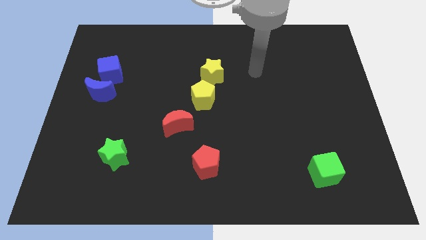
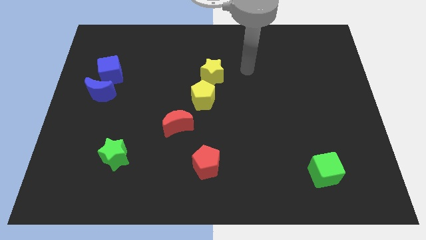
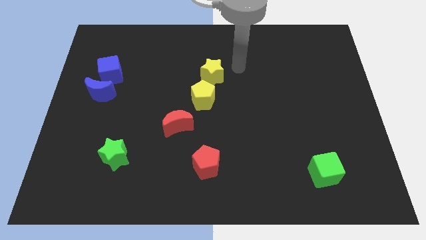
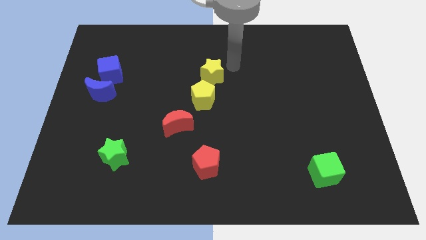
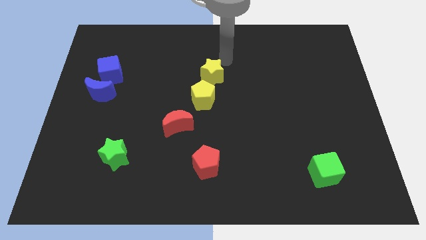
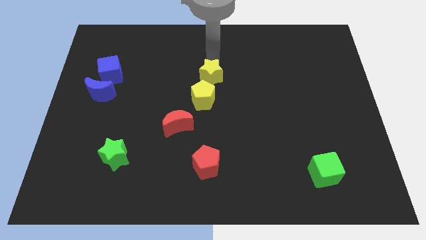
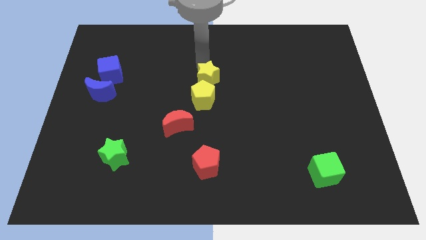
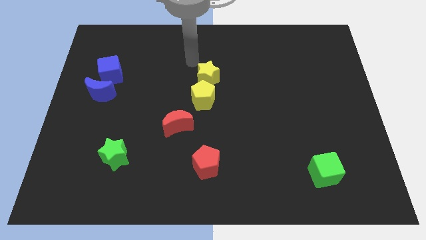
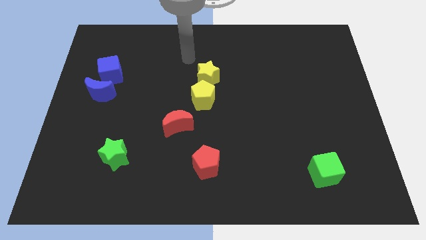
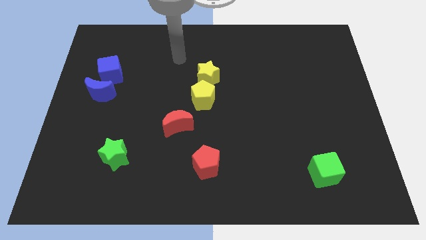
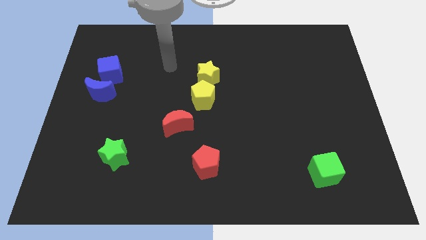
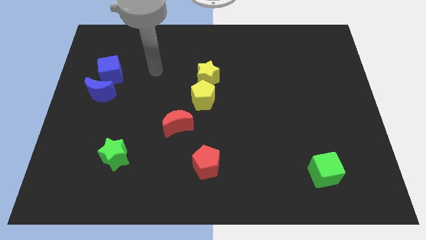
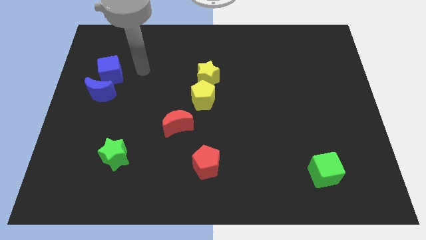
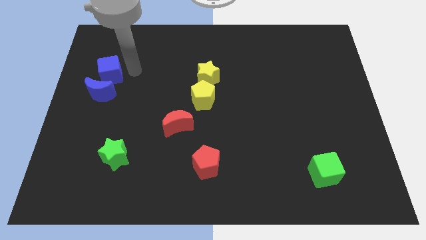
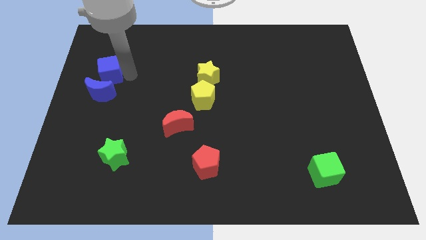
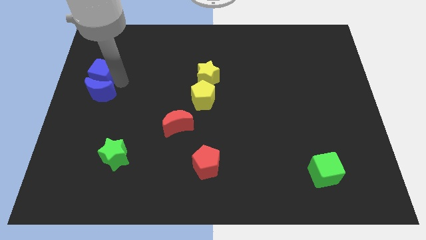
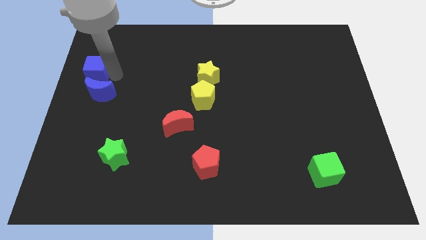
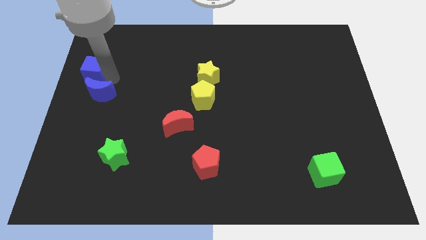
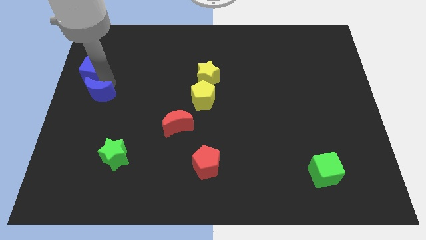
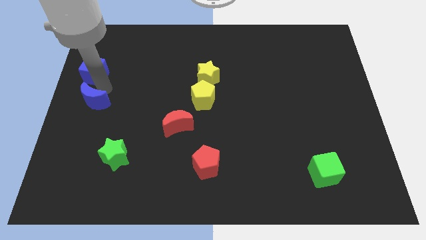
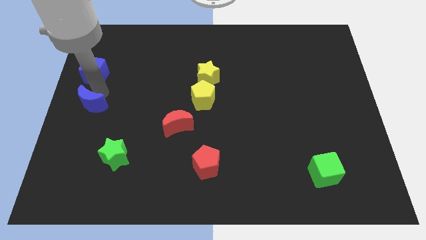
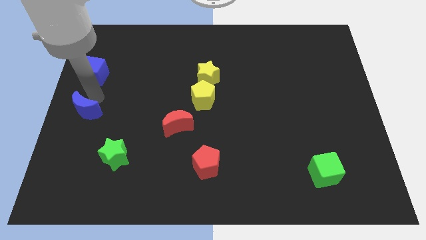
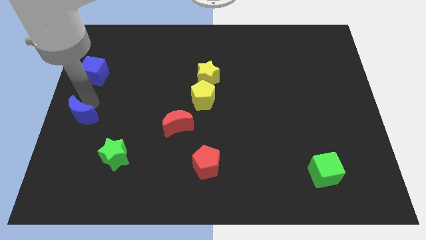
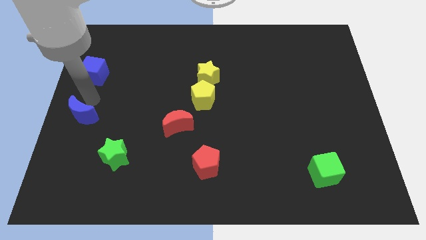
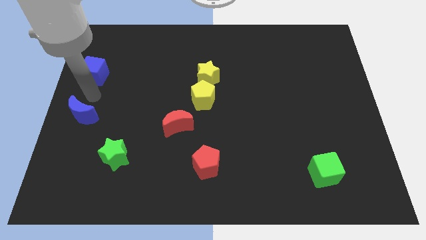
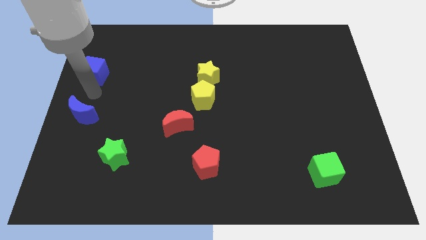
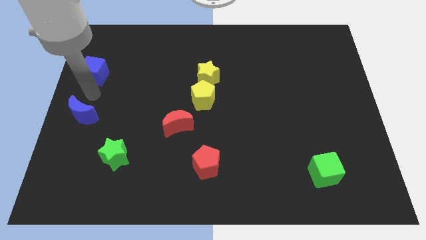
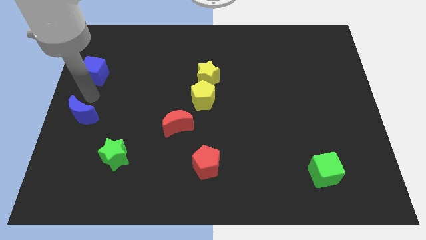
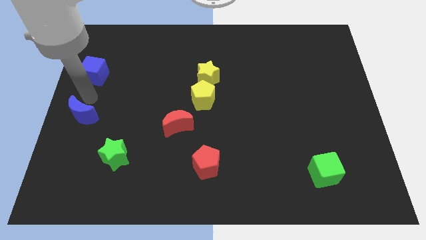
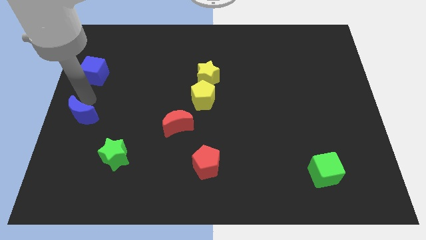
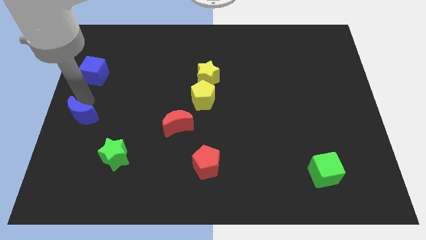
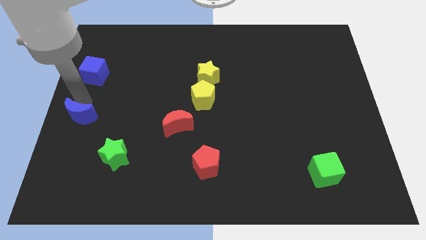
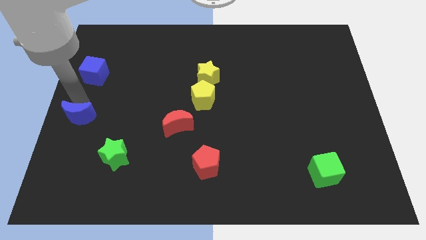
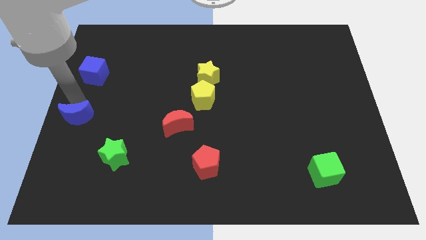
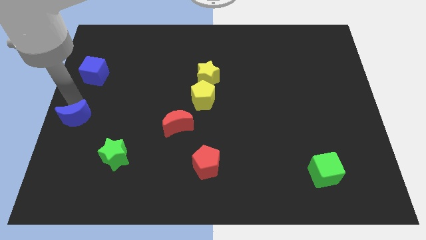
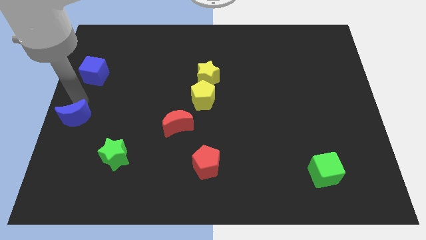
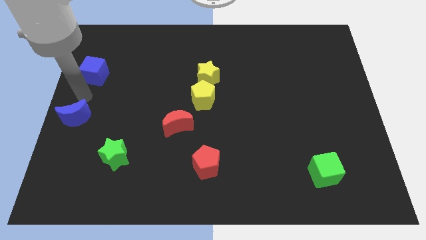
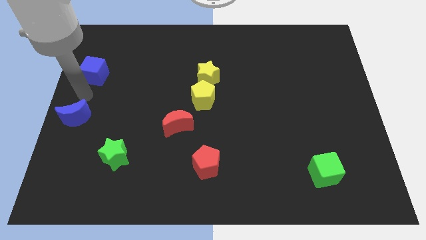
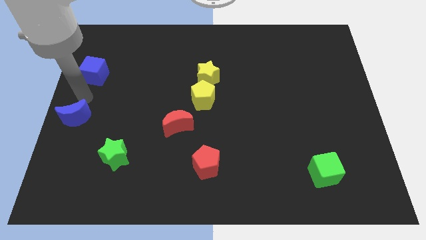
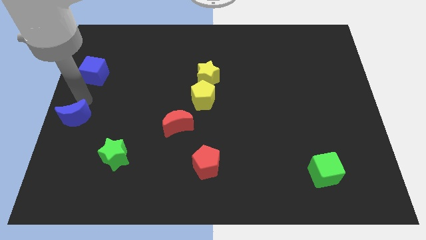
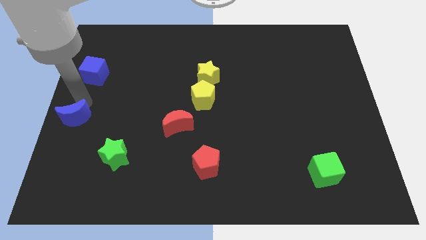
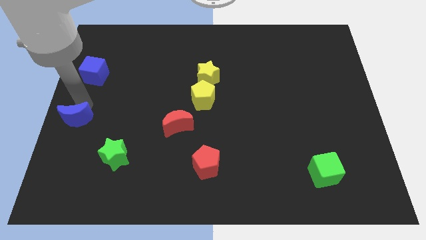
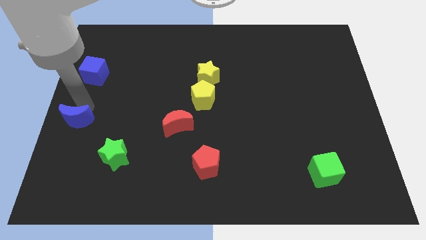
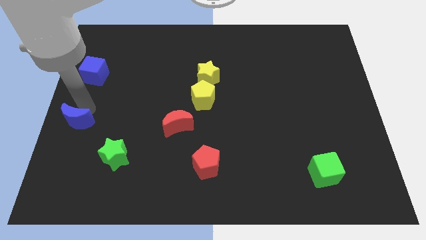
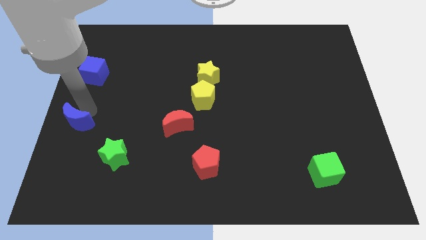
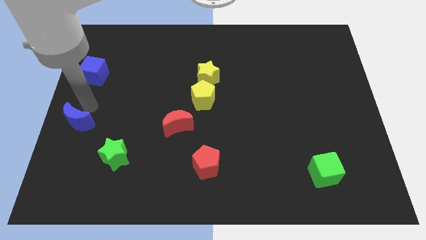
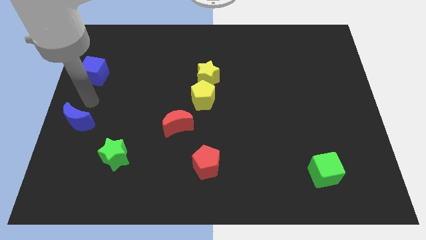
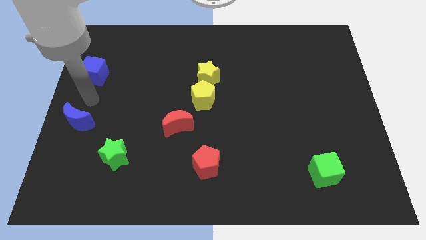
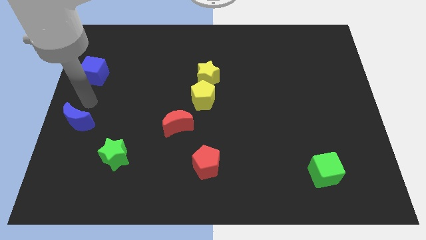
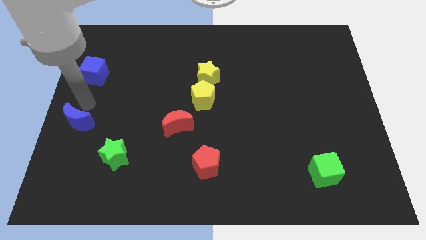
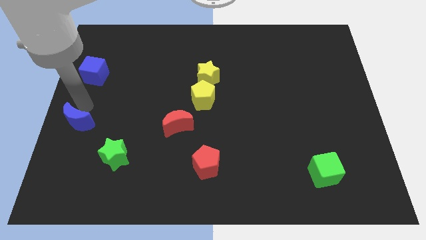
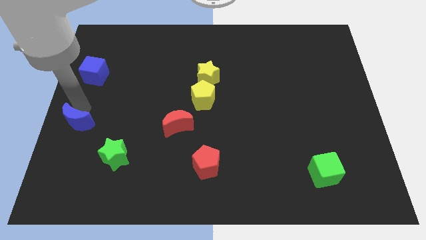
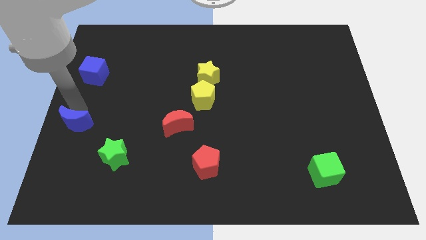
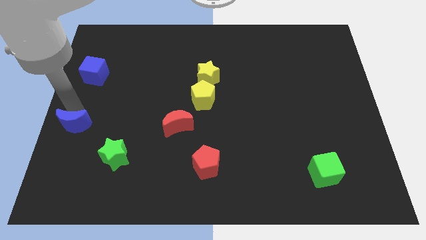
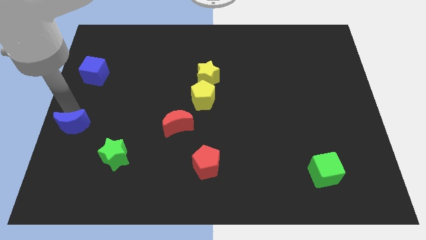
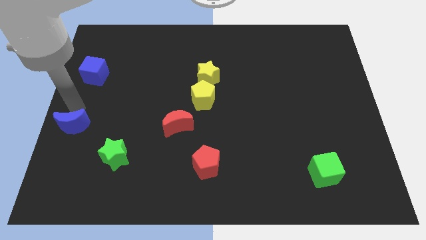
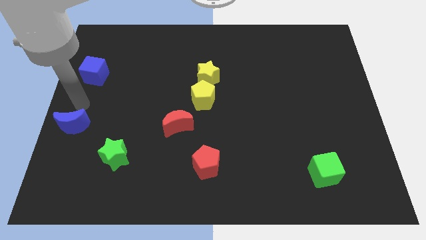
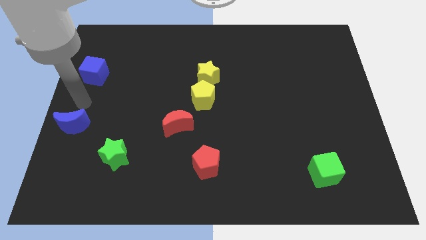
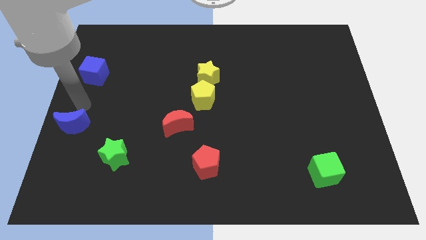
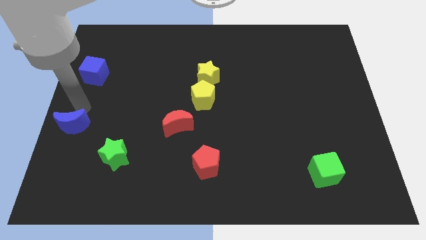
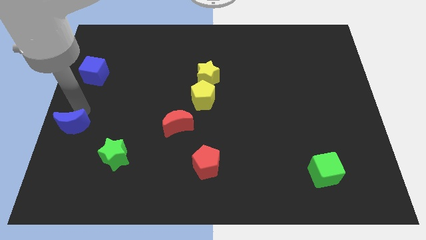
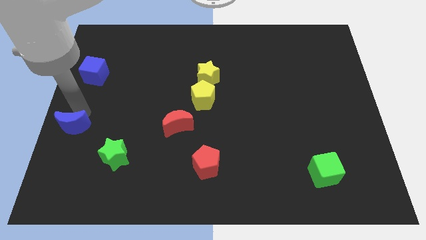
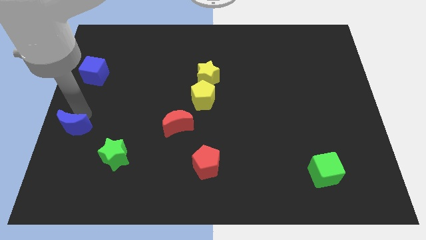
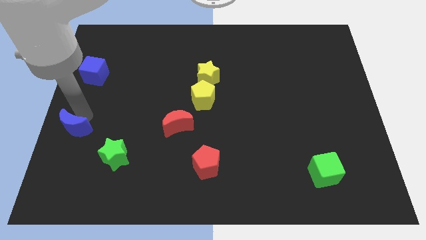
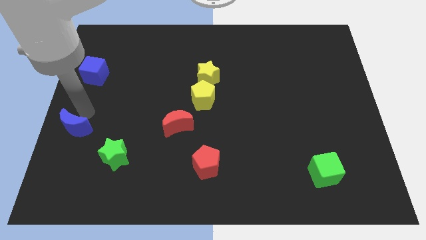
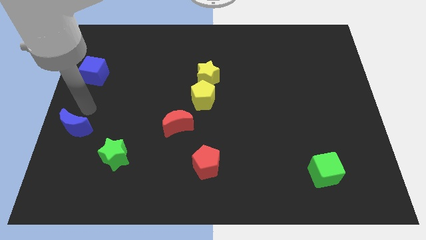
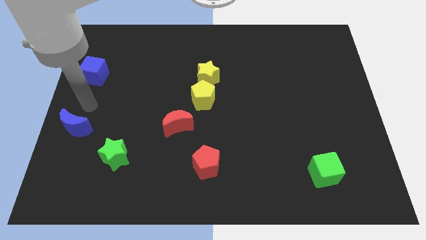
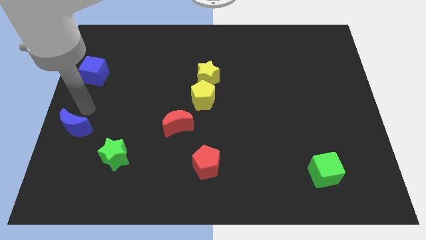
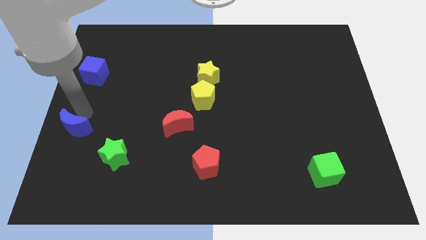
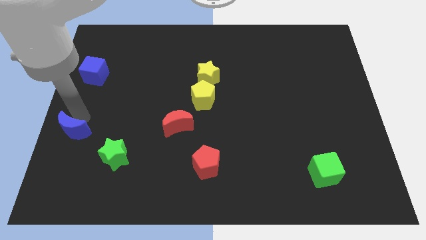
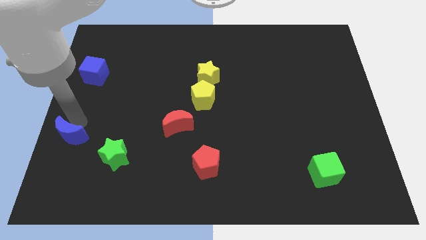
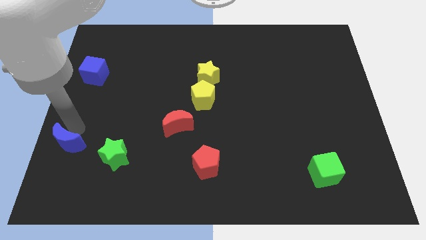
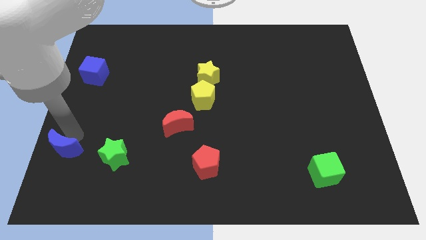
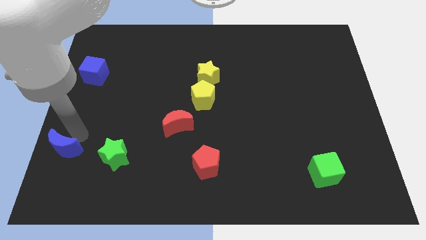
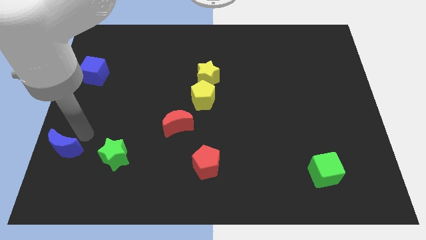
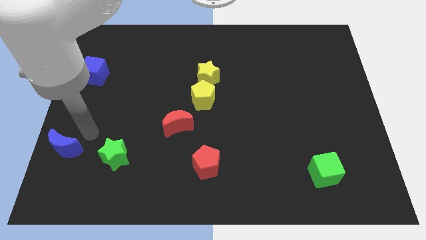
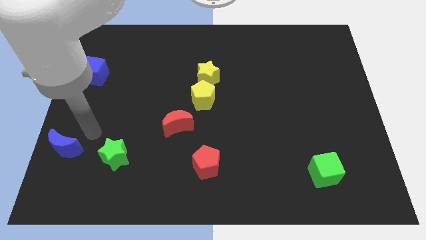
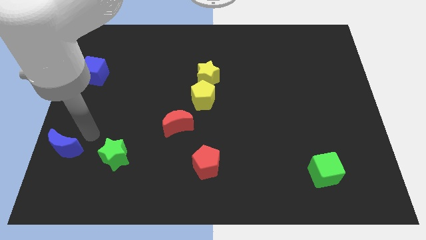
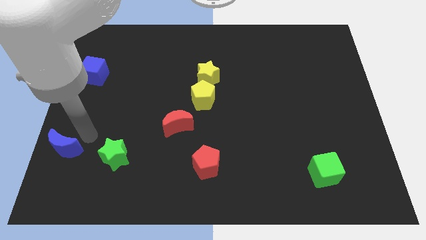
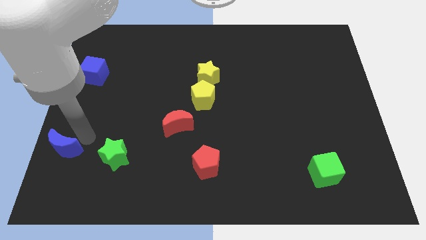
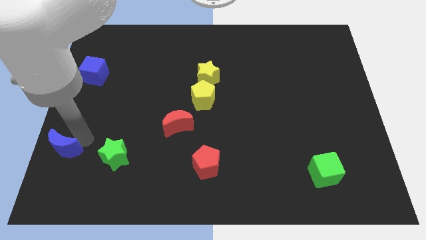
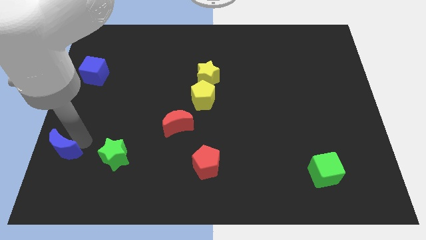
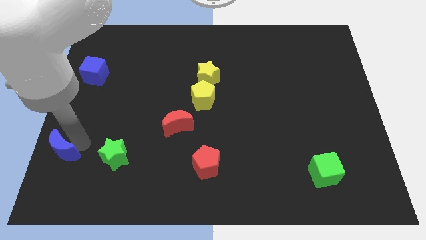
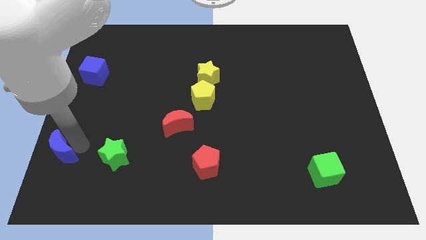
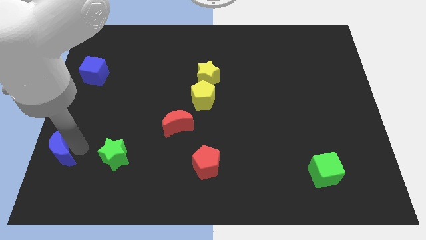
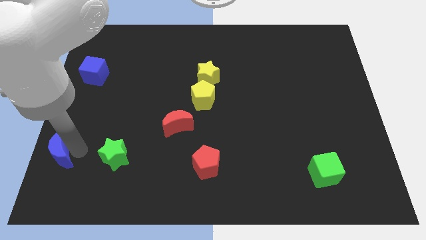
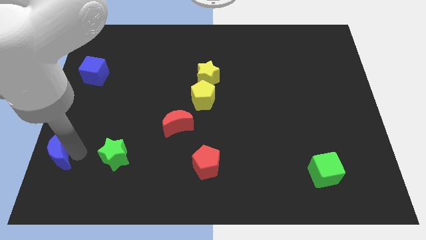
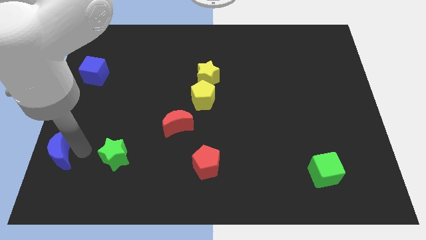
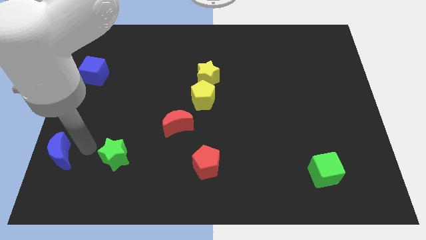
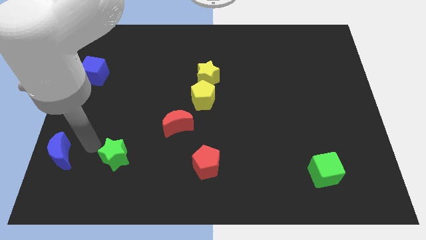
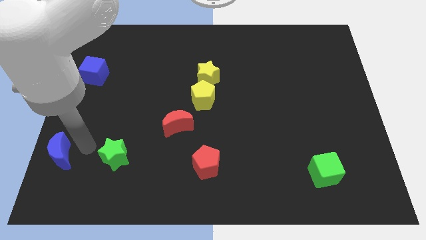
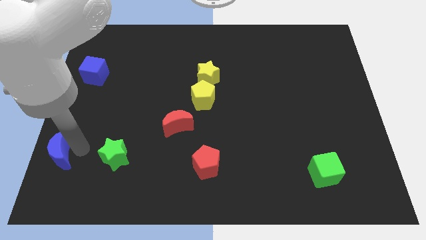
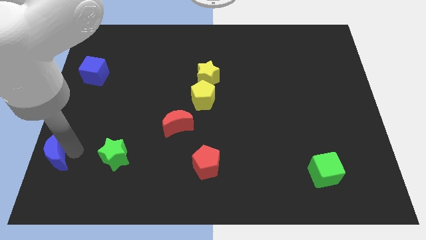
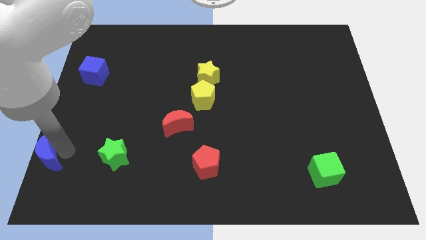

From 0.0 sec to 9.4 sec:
move the blue moon to the lower left corner
